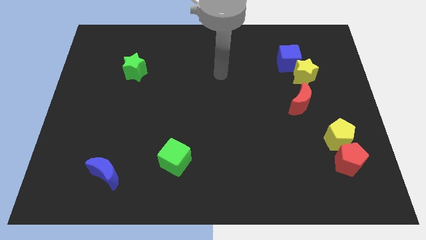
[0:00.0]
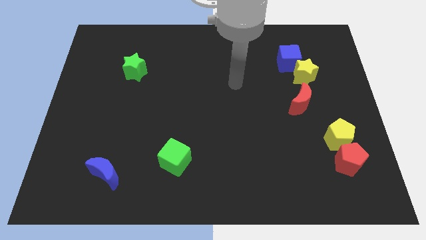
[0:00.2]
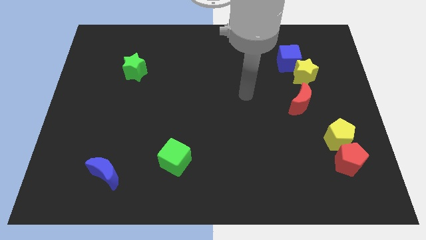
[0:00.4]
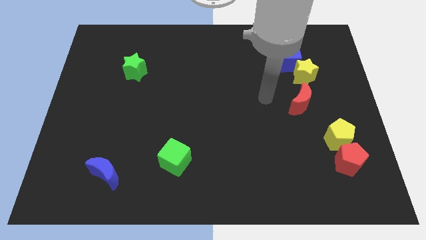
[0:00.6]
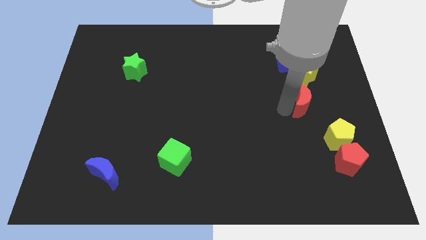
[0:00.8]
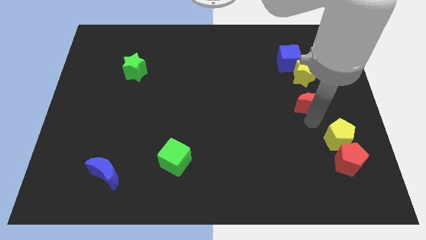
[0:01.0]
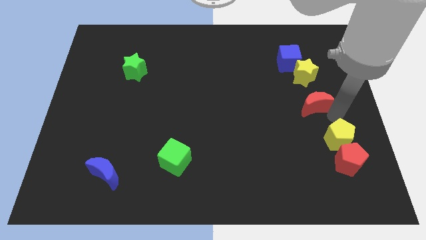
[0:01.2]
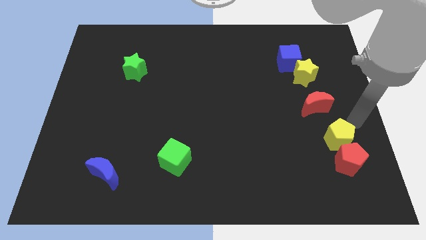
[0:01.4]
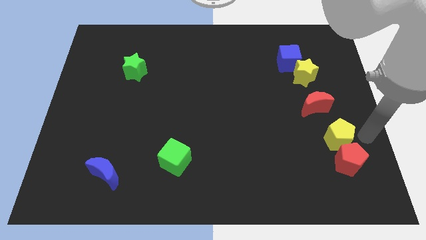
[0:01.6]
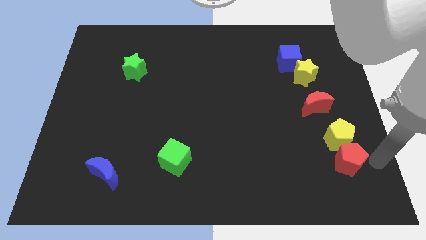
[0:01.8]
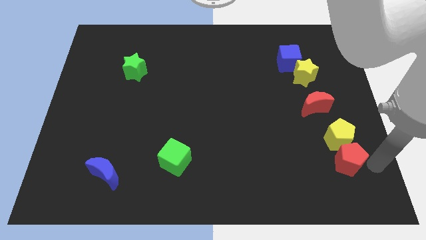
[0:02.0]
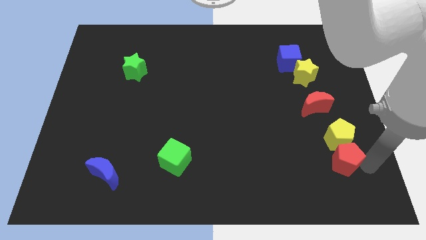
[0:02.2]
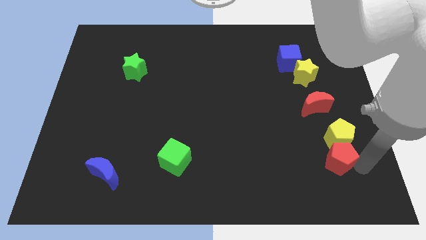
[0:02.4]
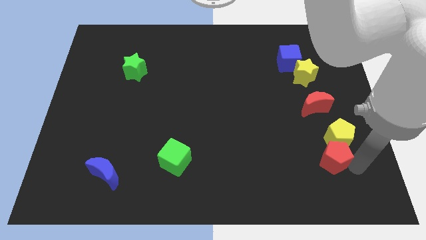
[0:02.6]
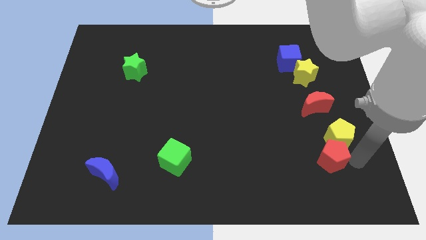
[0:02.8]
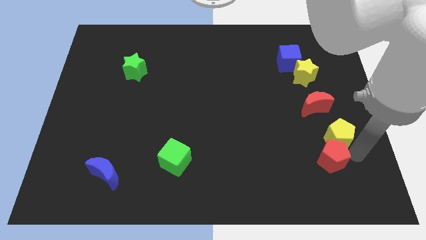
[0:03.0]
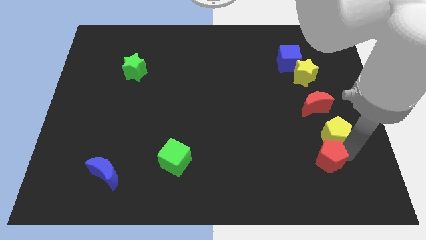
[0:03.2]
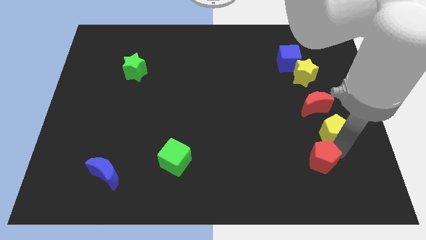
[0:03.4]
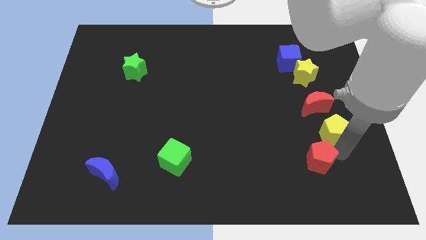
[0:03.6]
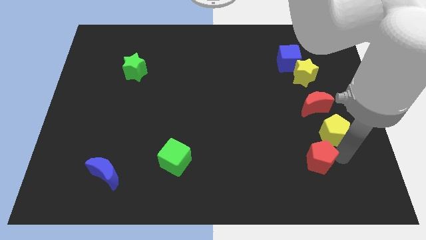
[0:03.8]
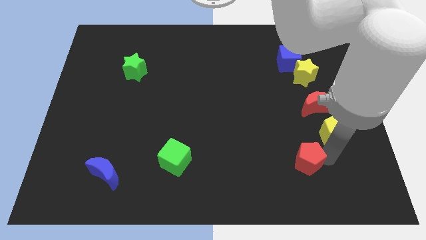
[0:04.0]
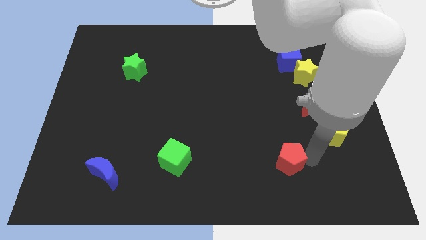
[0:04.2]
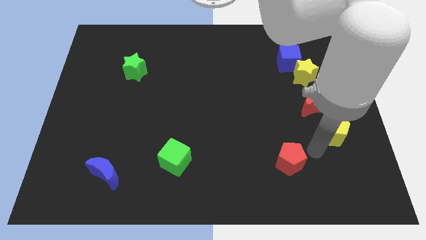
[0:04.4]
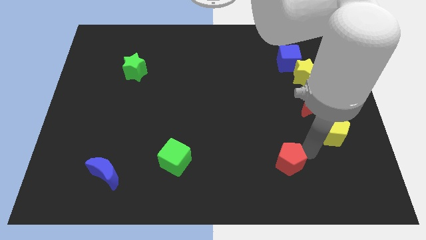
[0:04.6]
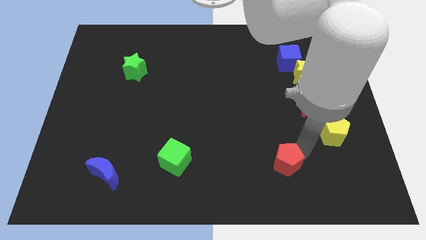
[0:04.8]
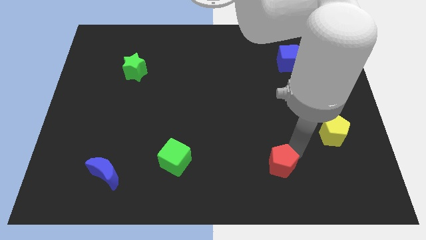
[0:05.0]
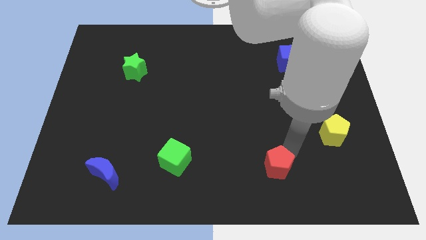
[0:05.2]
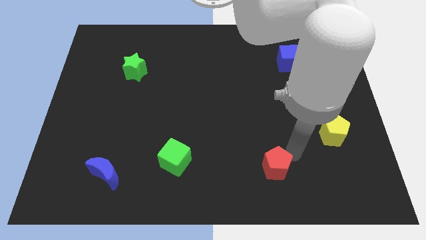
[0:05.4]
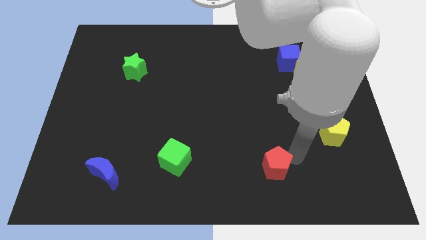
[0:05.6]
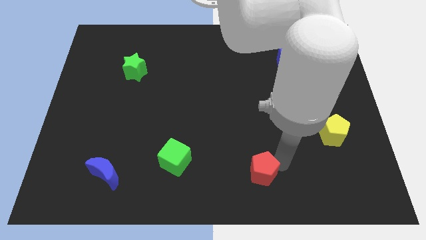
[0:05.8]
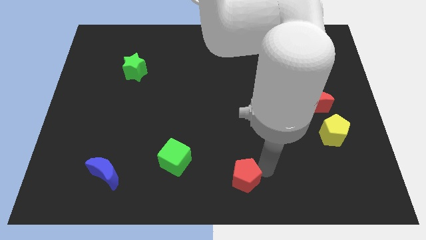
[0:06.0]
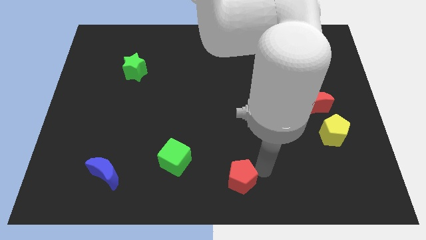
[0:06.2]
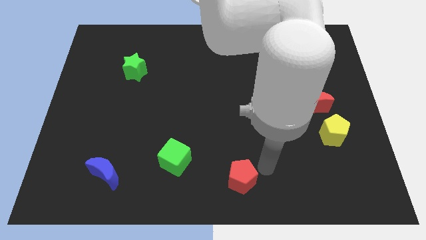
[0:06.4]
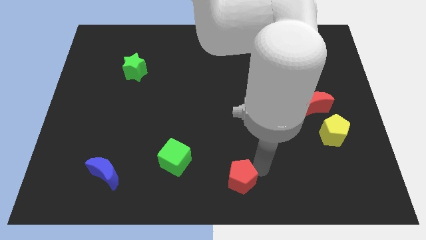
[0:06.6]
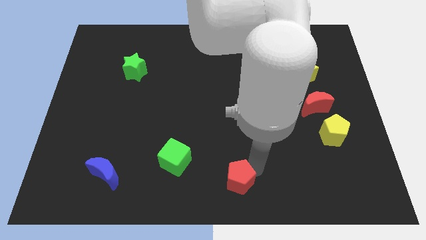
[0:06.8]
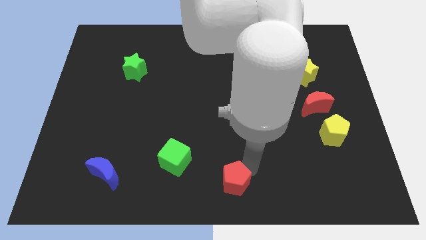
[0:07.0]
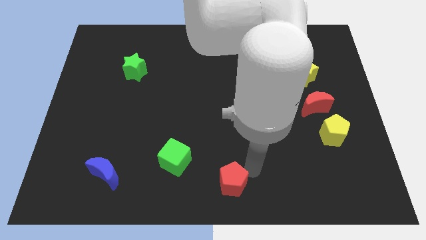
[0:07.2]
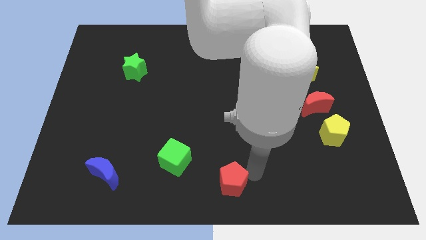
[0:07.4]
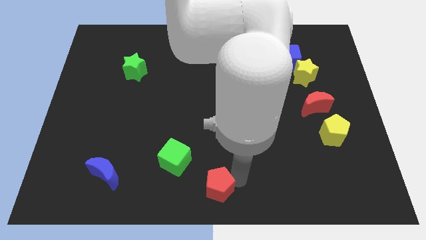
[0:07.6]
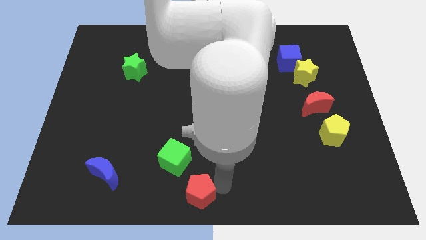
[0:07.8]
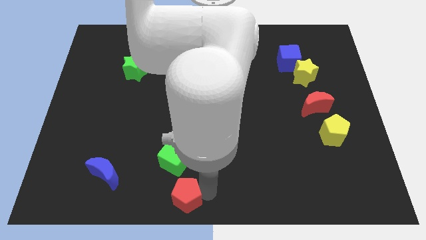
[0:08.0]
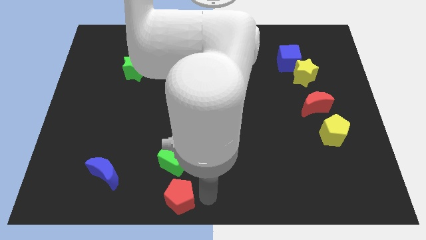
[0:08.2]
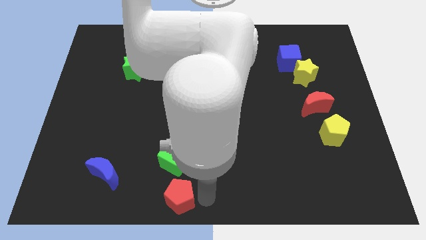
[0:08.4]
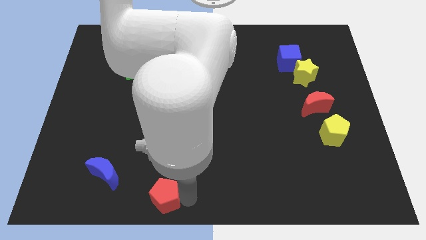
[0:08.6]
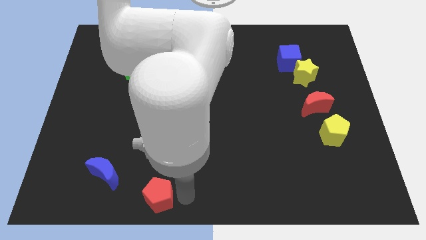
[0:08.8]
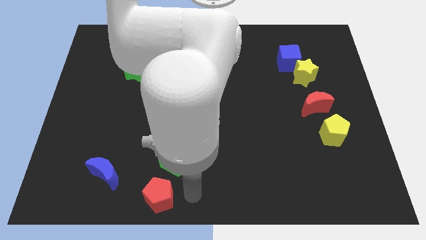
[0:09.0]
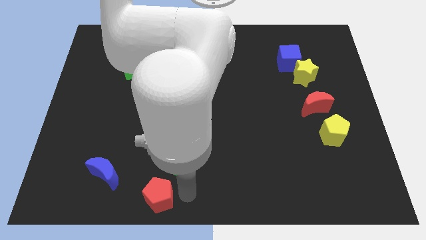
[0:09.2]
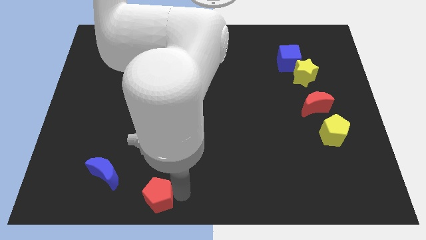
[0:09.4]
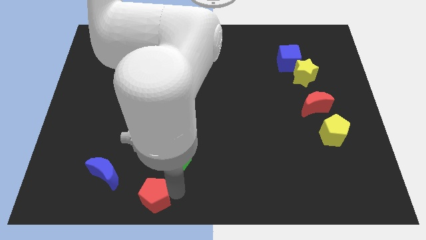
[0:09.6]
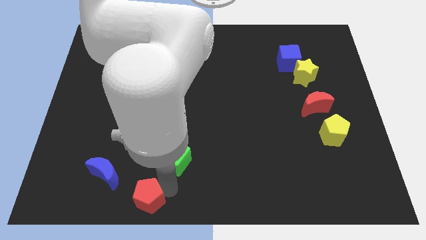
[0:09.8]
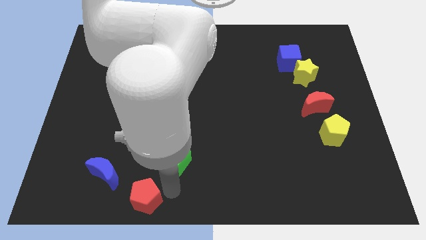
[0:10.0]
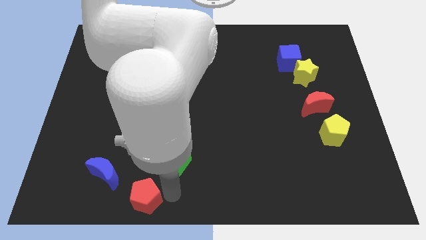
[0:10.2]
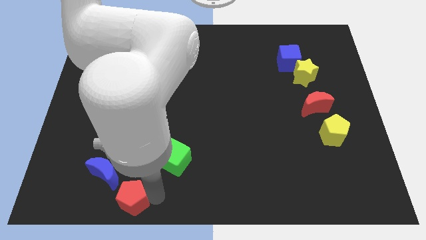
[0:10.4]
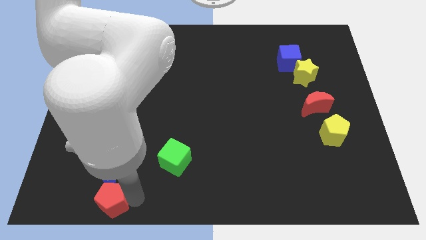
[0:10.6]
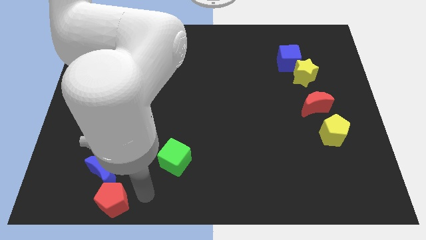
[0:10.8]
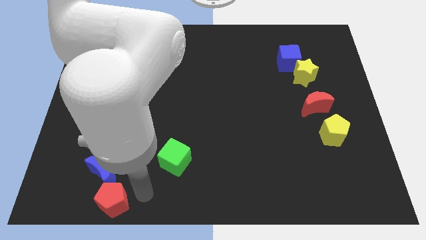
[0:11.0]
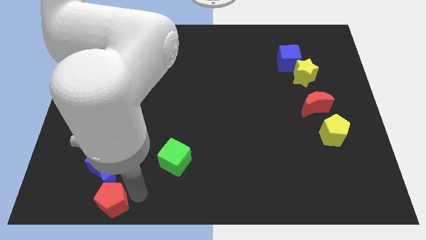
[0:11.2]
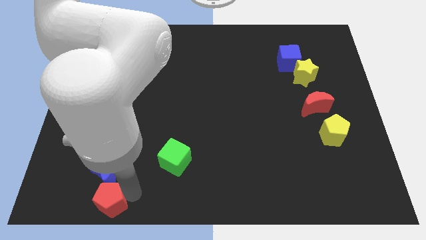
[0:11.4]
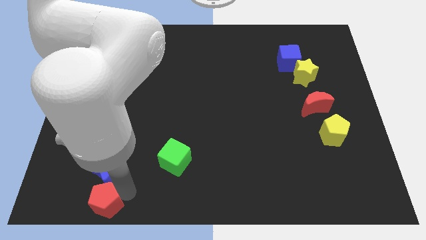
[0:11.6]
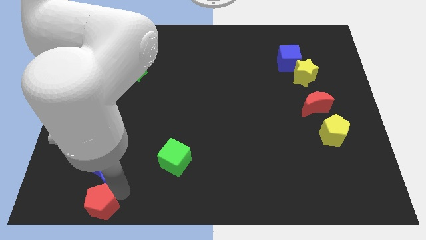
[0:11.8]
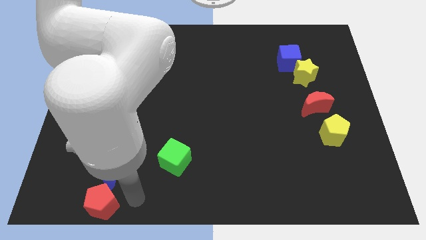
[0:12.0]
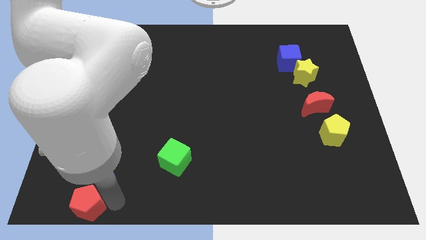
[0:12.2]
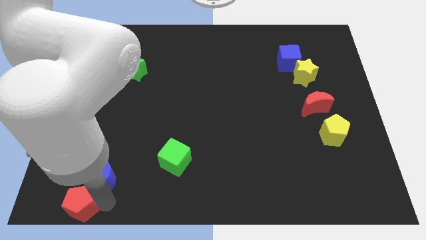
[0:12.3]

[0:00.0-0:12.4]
push the red pentagon to the lower left corner

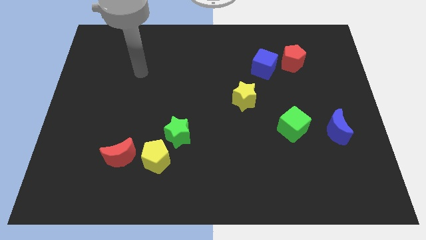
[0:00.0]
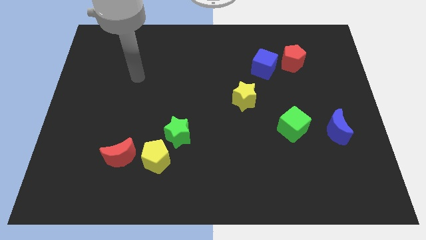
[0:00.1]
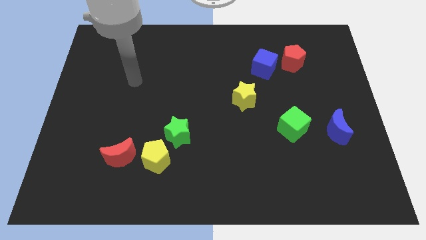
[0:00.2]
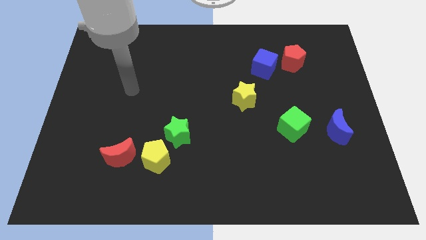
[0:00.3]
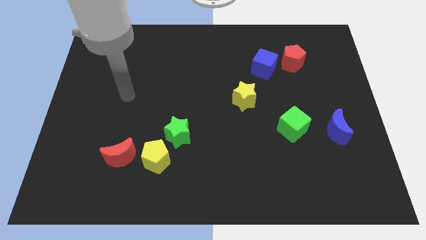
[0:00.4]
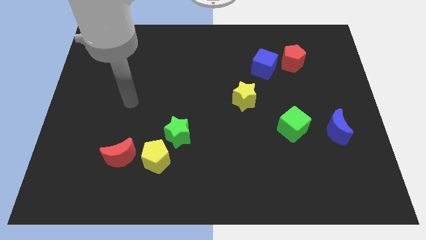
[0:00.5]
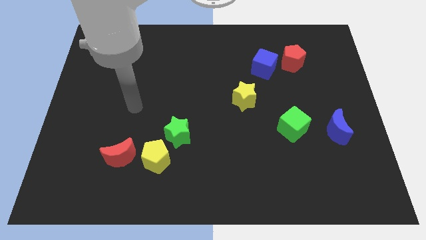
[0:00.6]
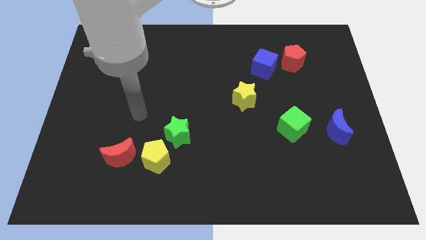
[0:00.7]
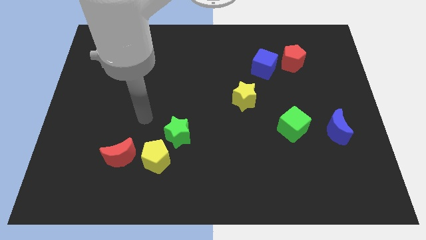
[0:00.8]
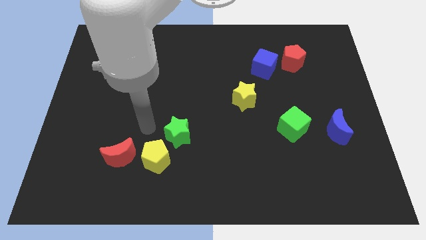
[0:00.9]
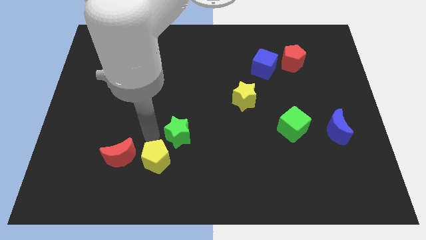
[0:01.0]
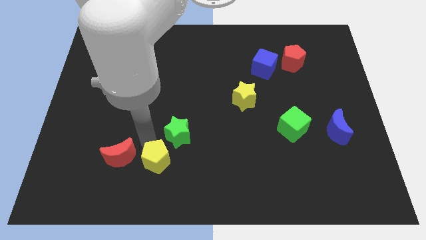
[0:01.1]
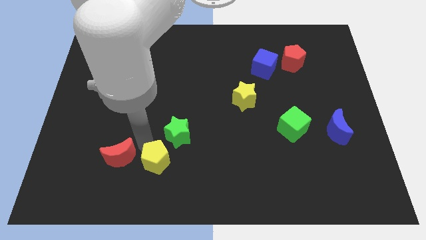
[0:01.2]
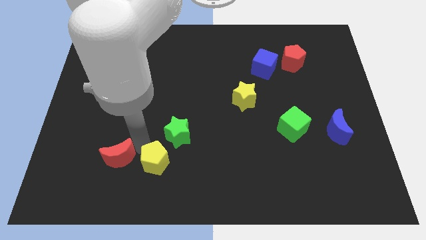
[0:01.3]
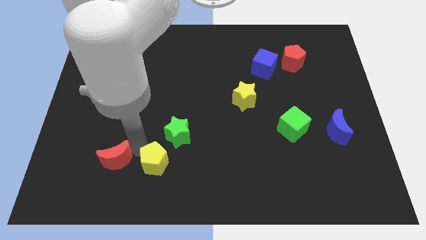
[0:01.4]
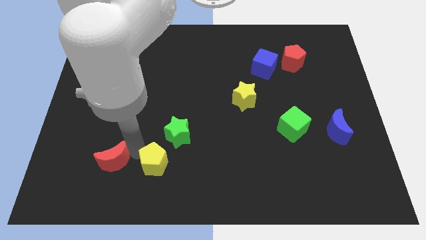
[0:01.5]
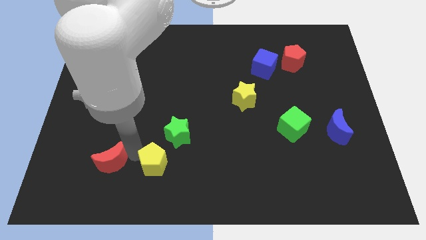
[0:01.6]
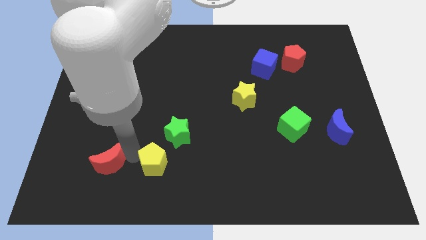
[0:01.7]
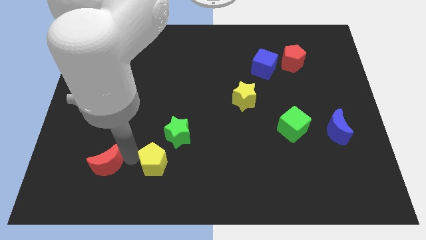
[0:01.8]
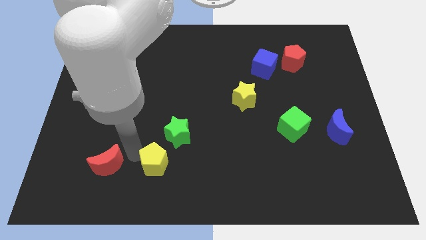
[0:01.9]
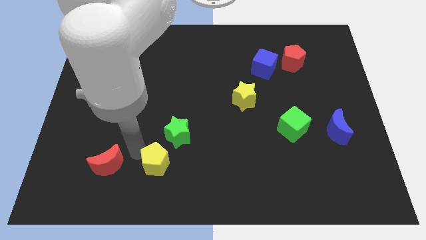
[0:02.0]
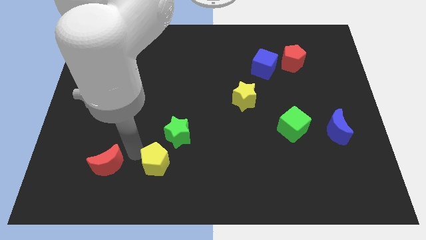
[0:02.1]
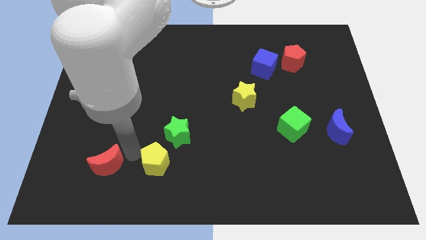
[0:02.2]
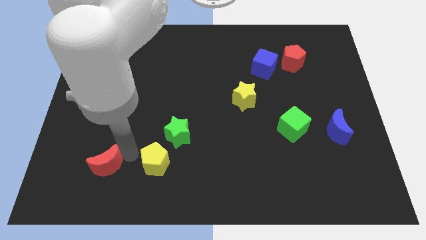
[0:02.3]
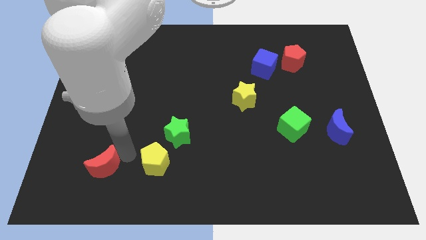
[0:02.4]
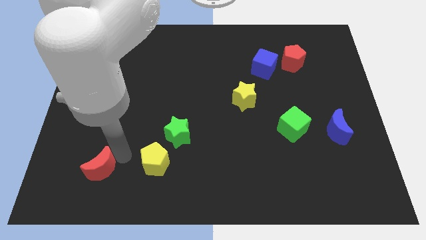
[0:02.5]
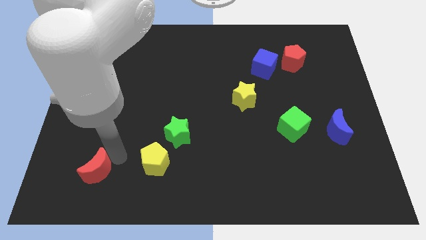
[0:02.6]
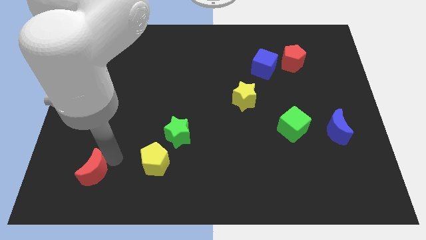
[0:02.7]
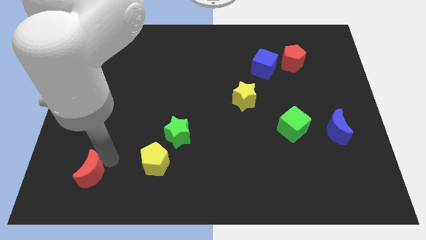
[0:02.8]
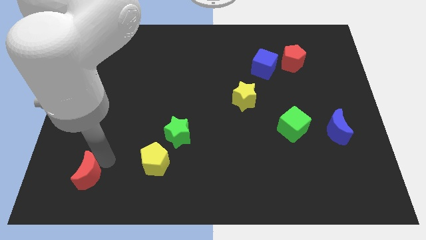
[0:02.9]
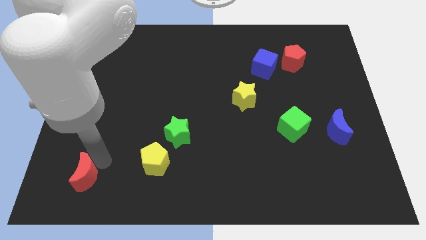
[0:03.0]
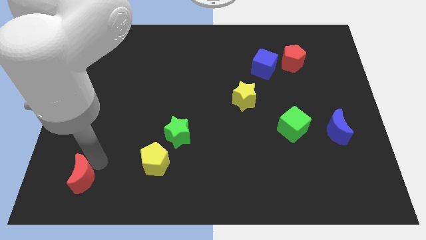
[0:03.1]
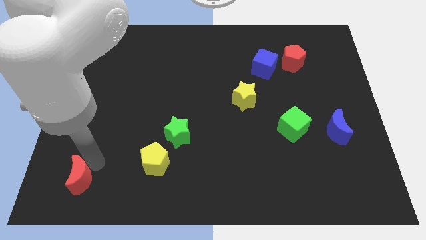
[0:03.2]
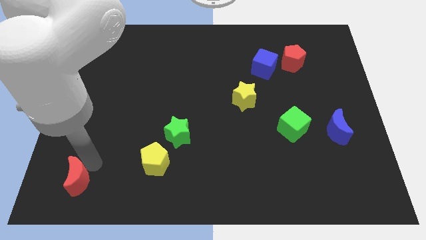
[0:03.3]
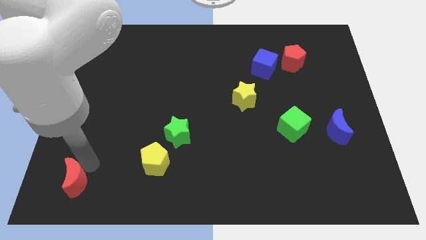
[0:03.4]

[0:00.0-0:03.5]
slide the red moon to the lower left corner
